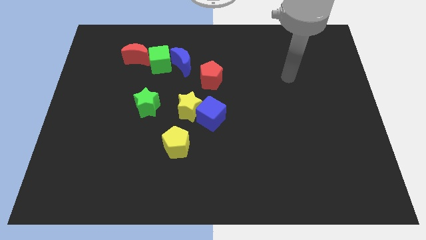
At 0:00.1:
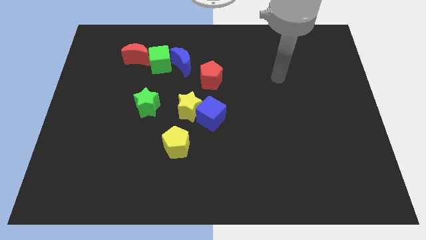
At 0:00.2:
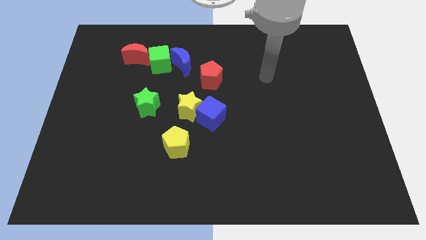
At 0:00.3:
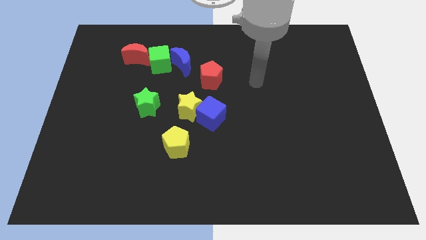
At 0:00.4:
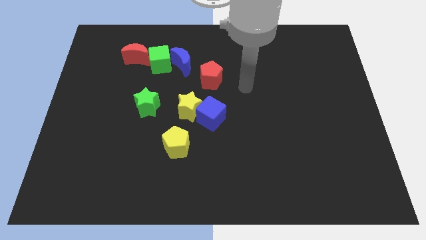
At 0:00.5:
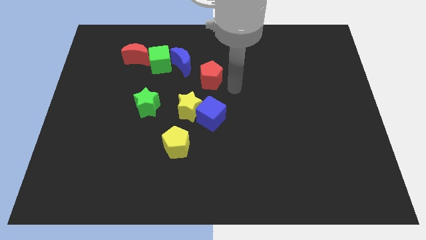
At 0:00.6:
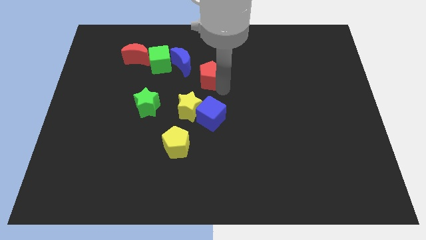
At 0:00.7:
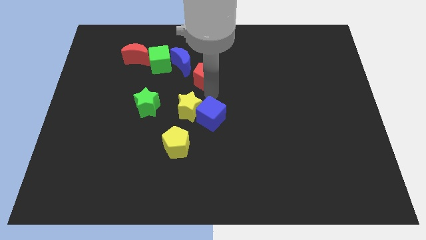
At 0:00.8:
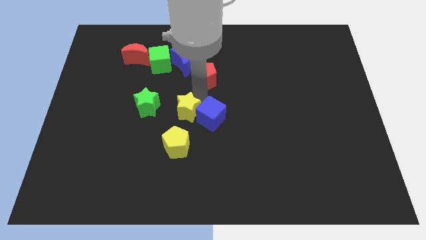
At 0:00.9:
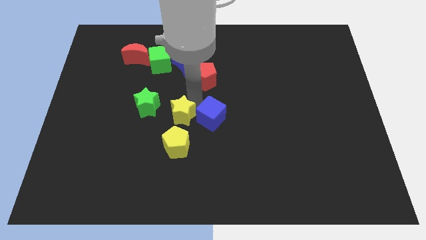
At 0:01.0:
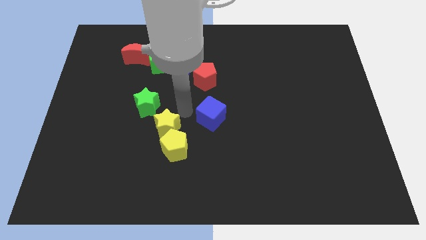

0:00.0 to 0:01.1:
separate the blue cube from the yellow star

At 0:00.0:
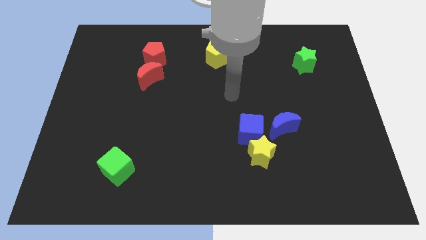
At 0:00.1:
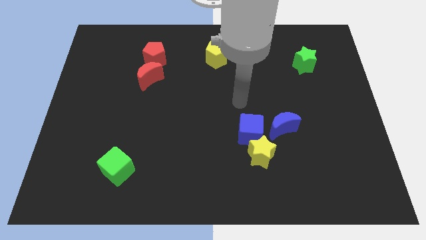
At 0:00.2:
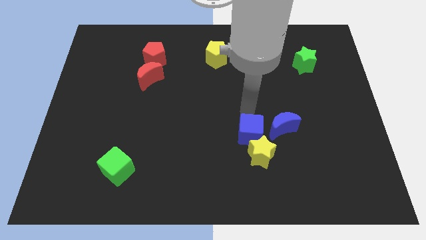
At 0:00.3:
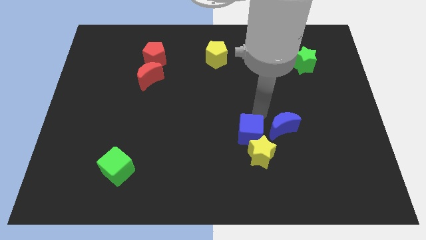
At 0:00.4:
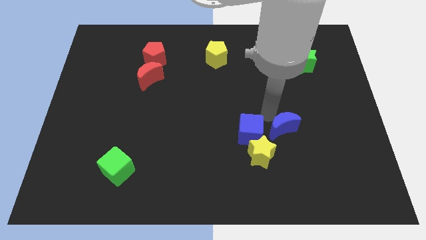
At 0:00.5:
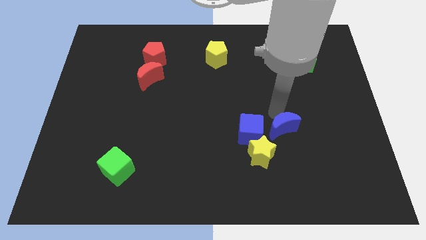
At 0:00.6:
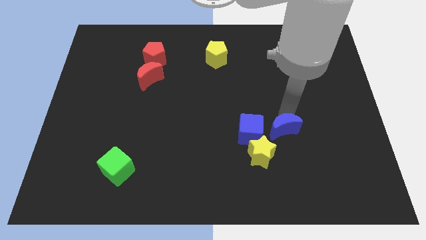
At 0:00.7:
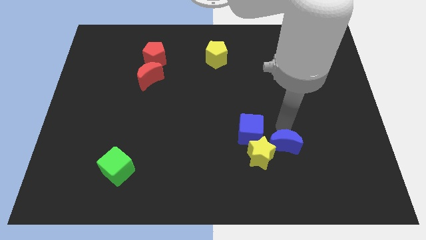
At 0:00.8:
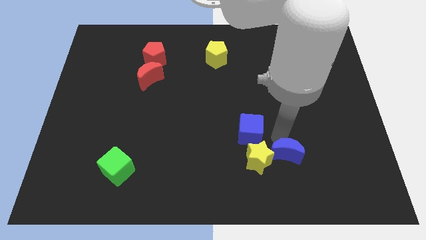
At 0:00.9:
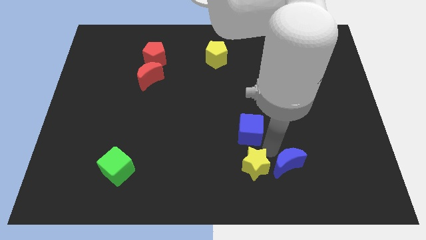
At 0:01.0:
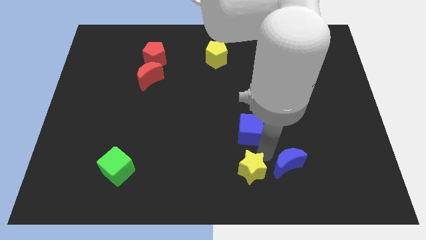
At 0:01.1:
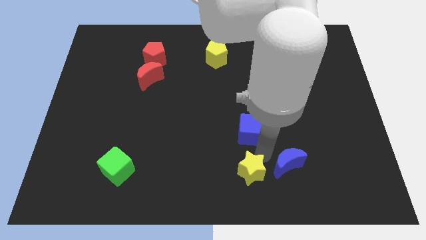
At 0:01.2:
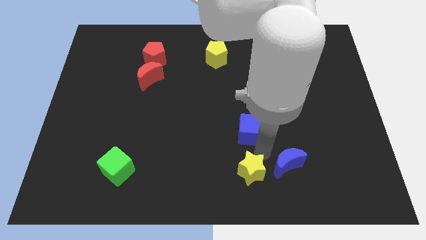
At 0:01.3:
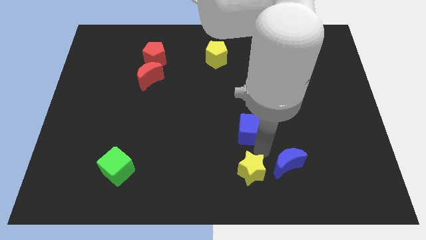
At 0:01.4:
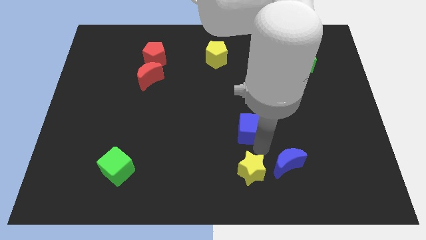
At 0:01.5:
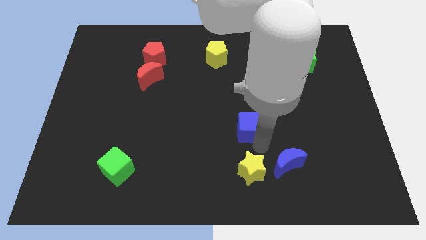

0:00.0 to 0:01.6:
separate the blue cube from the yellow star and blue moon

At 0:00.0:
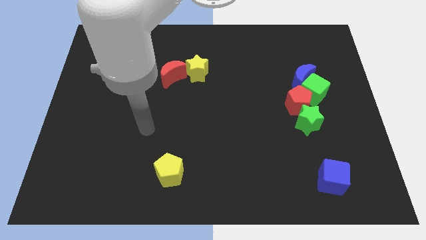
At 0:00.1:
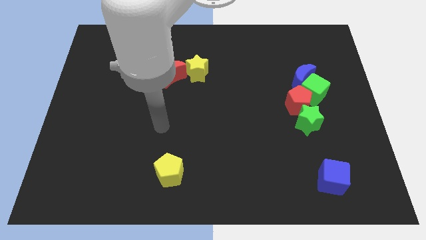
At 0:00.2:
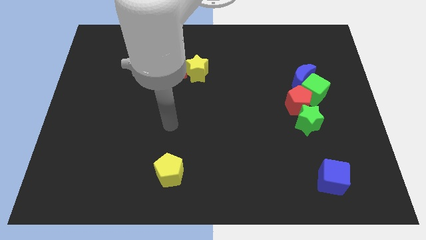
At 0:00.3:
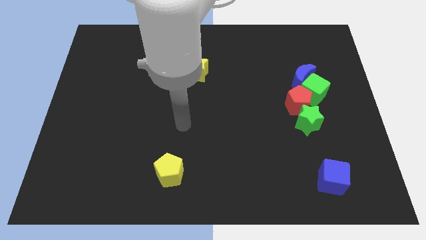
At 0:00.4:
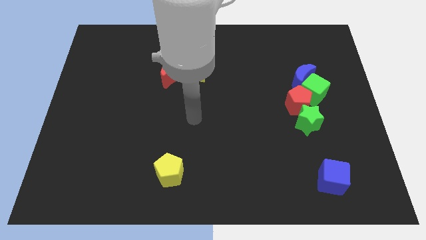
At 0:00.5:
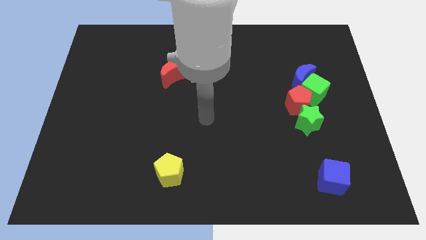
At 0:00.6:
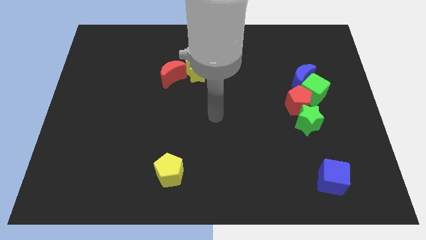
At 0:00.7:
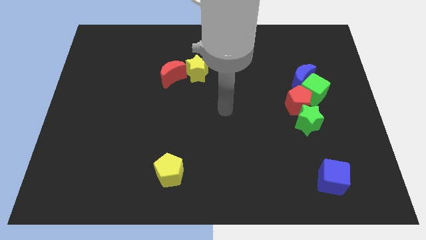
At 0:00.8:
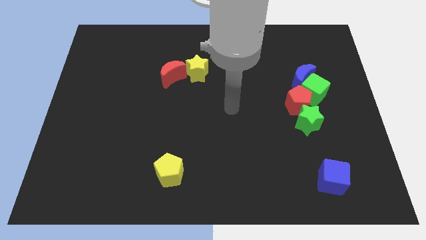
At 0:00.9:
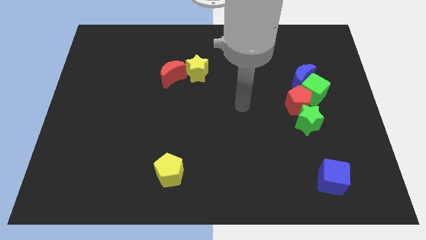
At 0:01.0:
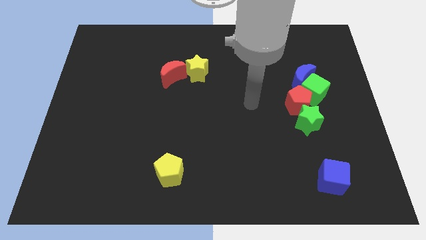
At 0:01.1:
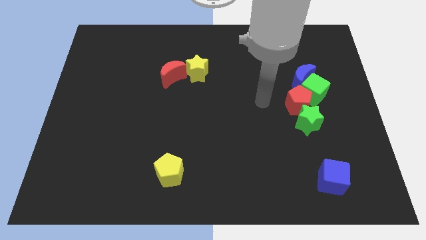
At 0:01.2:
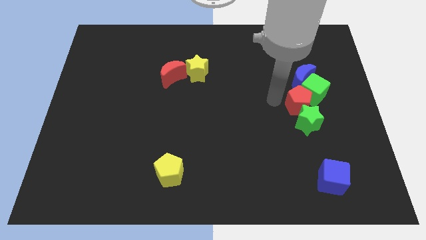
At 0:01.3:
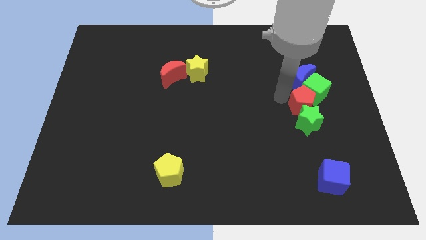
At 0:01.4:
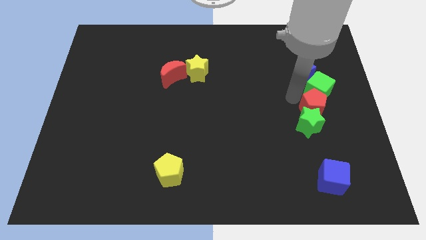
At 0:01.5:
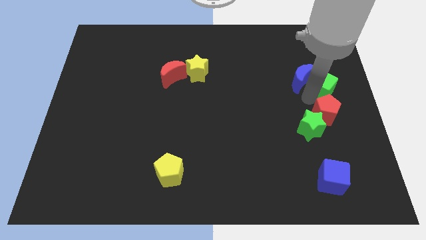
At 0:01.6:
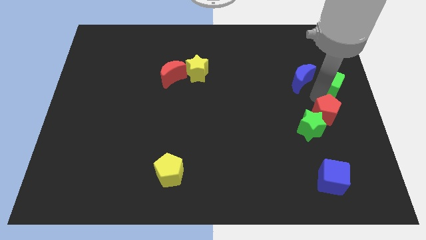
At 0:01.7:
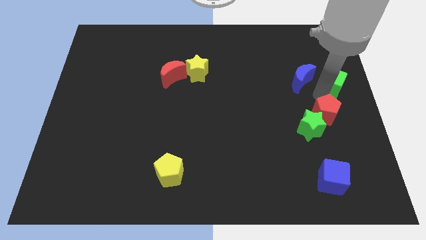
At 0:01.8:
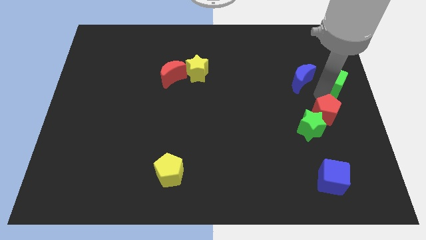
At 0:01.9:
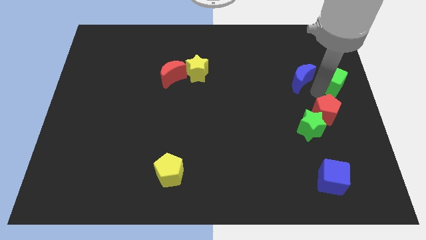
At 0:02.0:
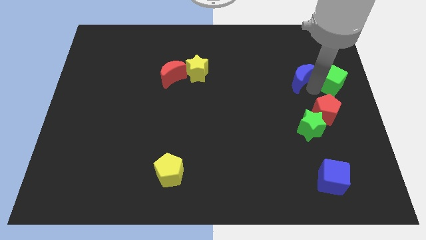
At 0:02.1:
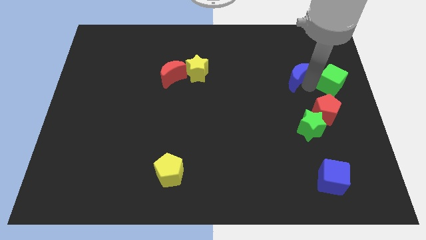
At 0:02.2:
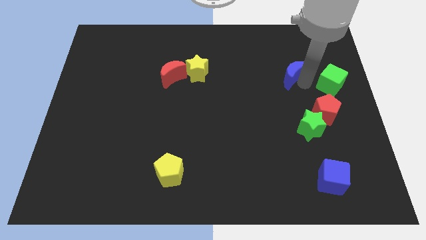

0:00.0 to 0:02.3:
separate the blue moon from the green cube and red pentagon

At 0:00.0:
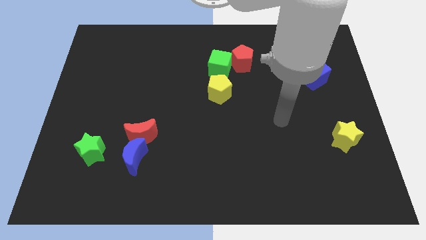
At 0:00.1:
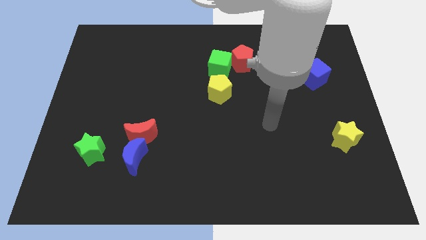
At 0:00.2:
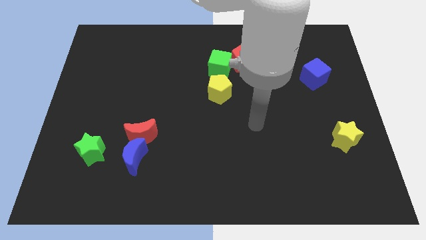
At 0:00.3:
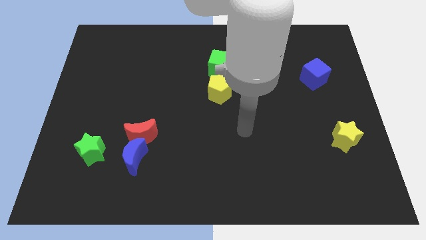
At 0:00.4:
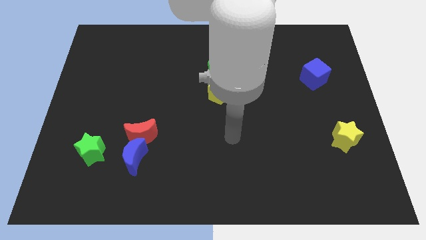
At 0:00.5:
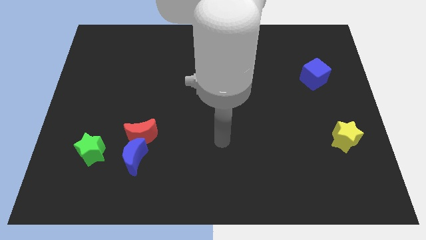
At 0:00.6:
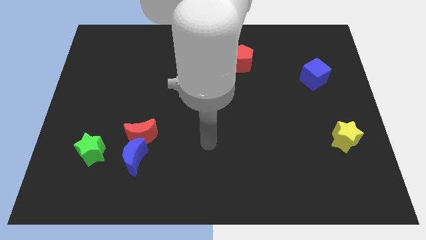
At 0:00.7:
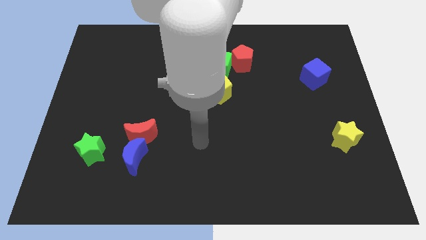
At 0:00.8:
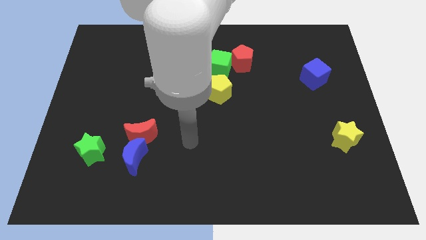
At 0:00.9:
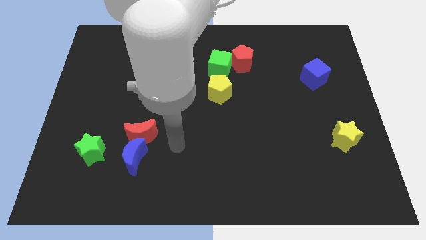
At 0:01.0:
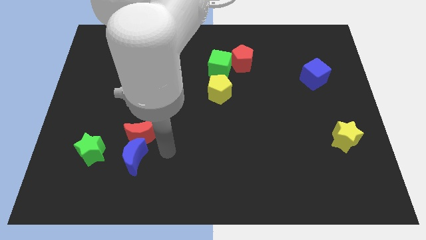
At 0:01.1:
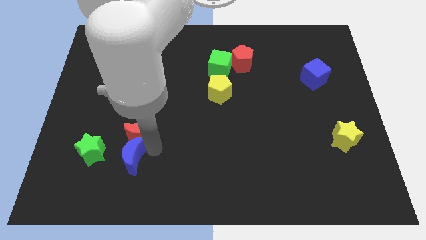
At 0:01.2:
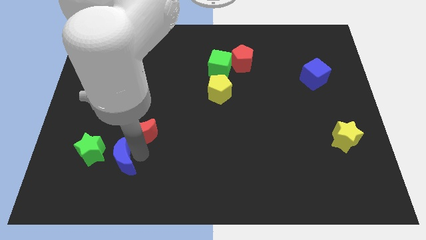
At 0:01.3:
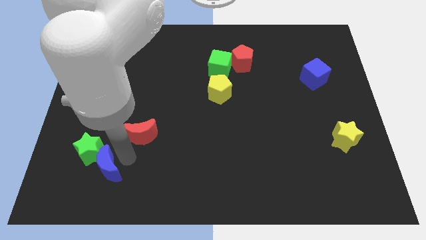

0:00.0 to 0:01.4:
separate the red moon from the blue moon

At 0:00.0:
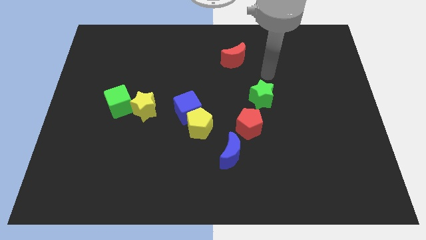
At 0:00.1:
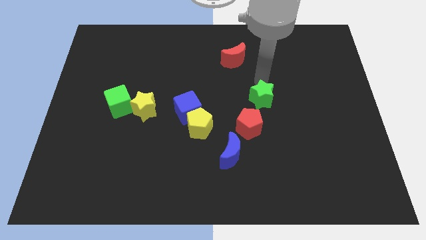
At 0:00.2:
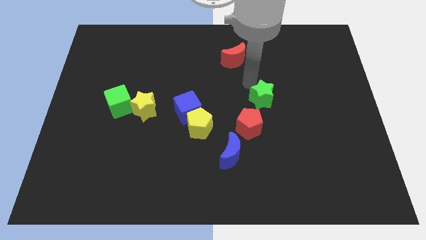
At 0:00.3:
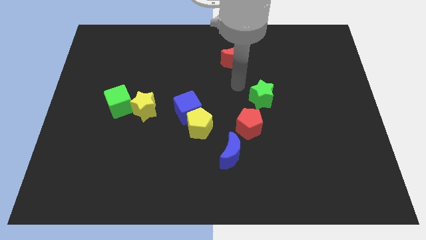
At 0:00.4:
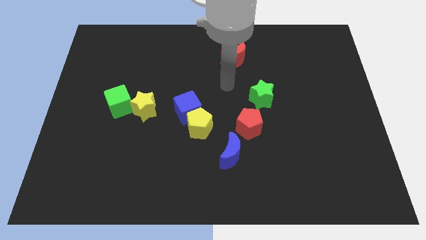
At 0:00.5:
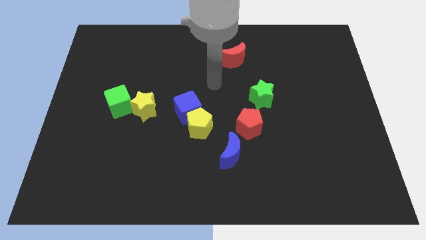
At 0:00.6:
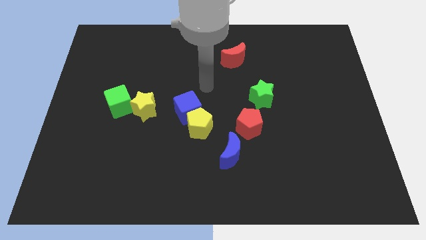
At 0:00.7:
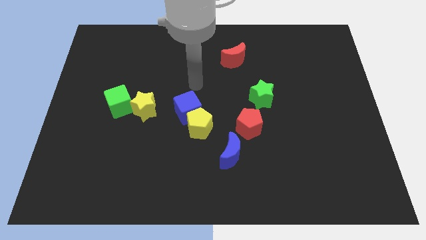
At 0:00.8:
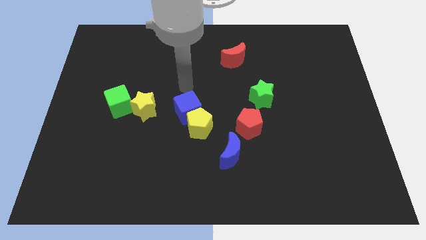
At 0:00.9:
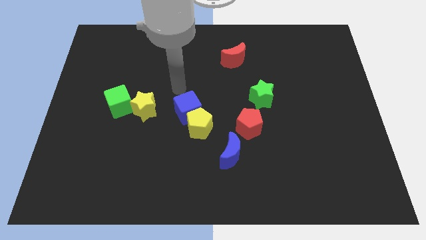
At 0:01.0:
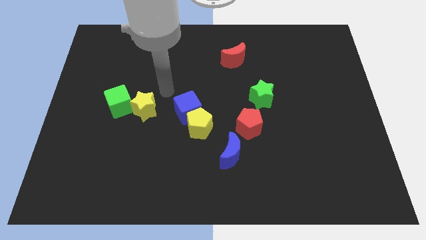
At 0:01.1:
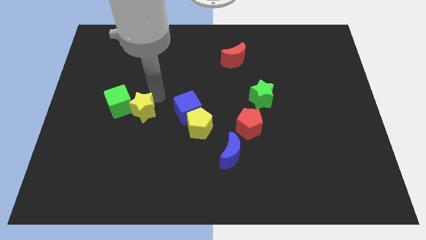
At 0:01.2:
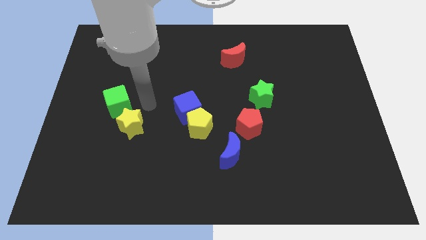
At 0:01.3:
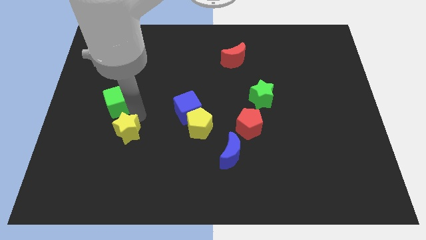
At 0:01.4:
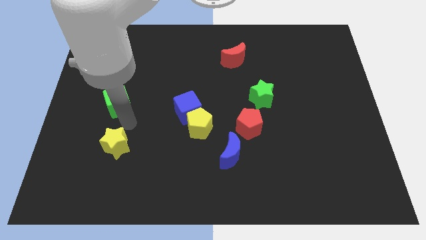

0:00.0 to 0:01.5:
pull the green cube apart from the yellow star

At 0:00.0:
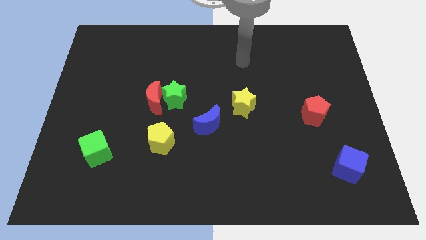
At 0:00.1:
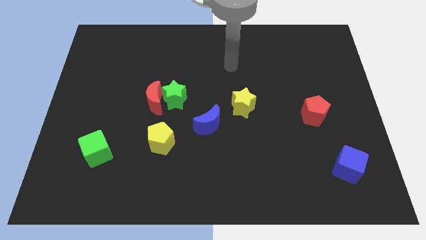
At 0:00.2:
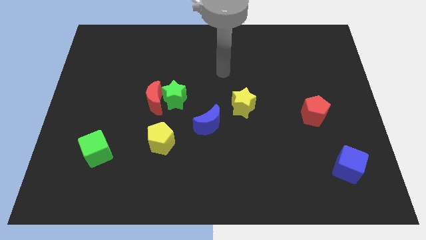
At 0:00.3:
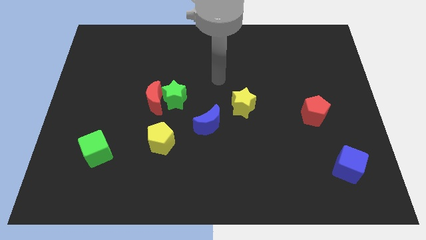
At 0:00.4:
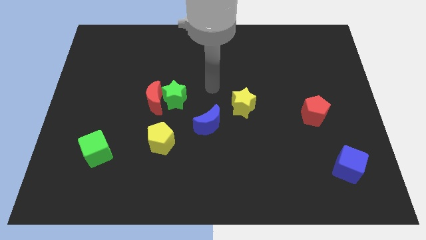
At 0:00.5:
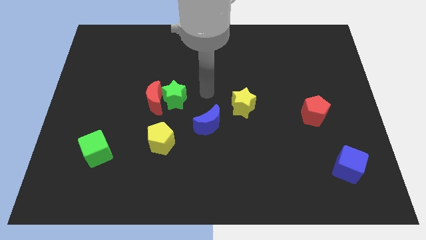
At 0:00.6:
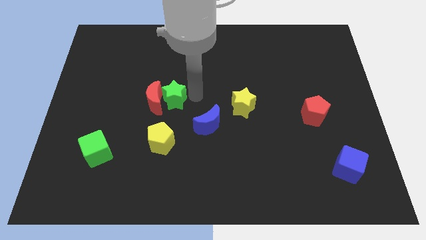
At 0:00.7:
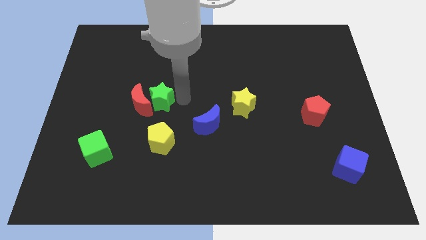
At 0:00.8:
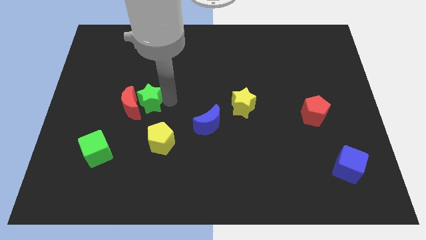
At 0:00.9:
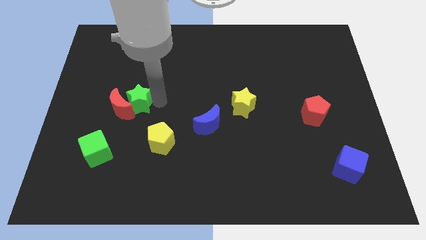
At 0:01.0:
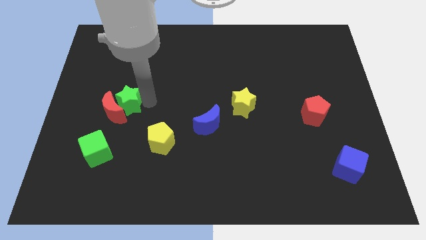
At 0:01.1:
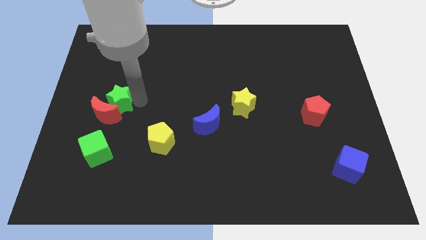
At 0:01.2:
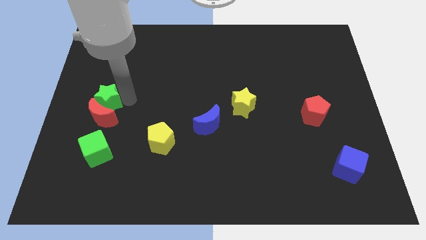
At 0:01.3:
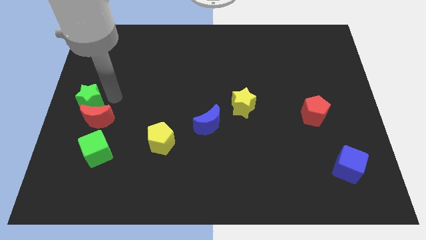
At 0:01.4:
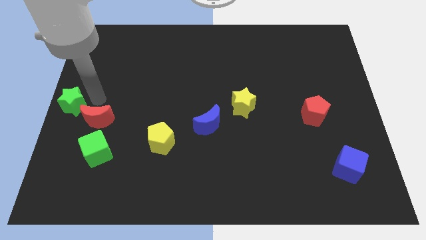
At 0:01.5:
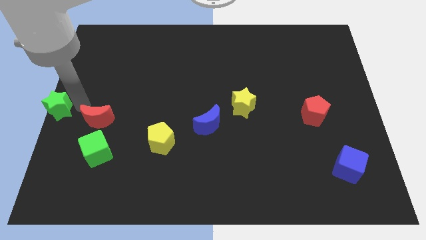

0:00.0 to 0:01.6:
move the red moon away from the green star
